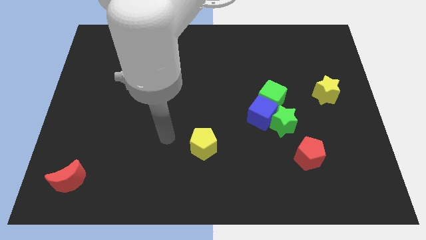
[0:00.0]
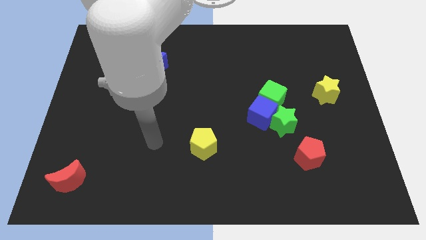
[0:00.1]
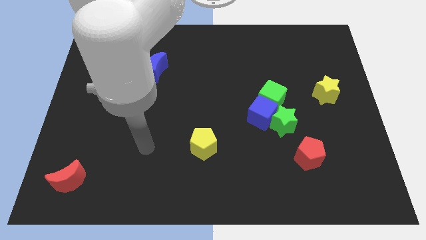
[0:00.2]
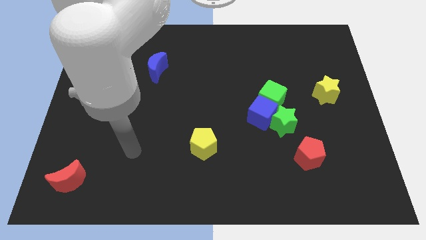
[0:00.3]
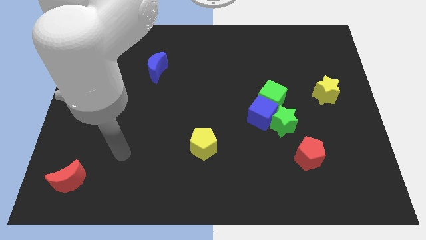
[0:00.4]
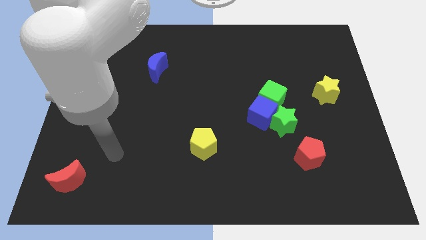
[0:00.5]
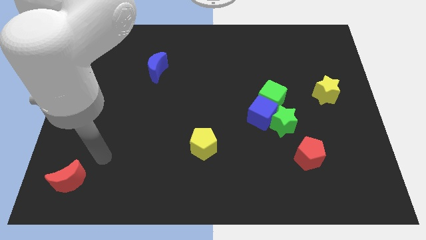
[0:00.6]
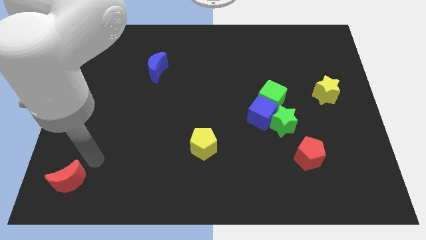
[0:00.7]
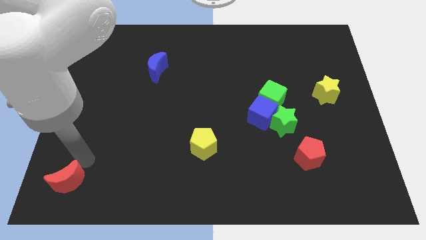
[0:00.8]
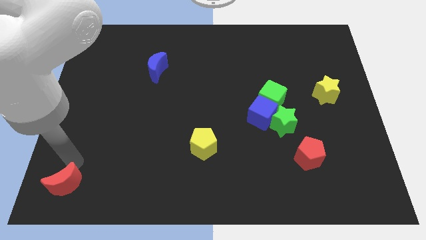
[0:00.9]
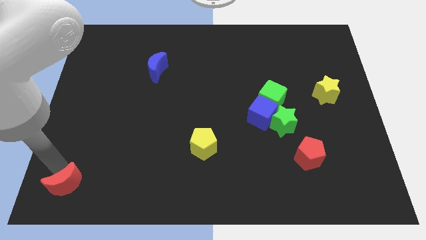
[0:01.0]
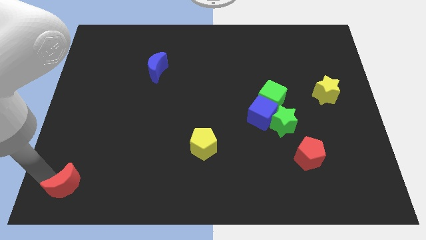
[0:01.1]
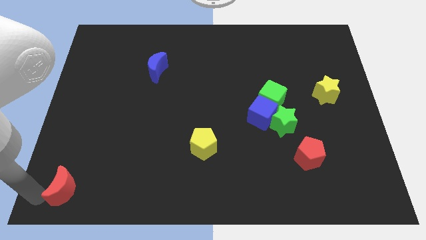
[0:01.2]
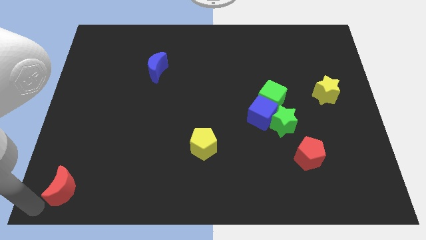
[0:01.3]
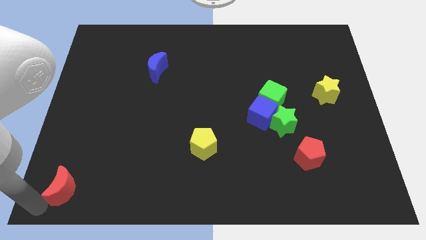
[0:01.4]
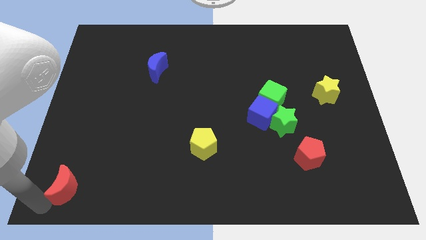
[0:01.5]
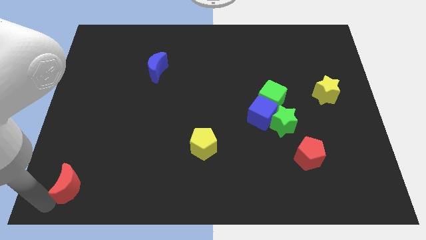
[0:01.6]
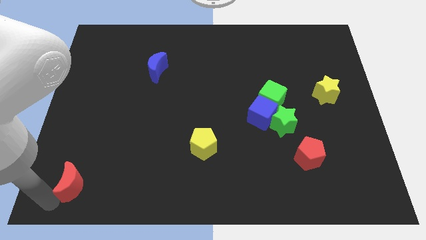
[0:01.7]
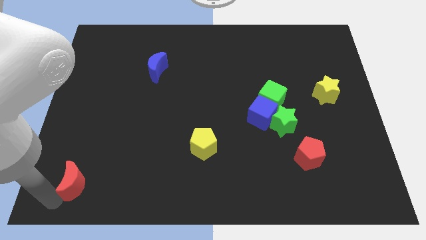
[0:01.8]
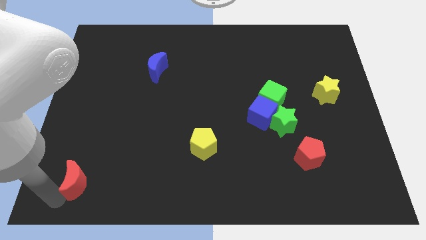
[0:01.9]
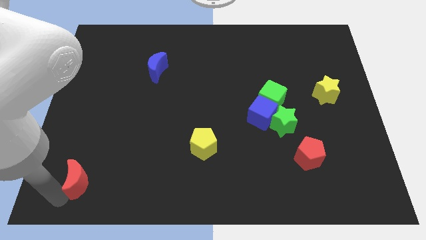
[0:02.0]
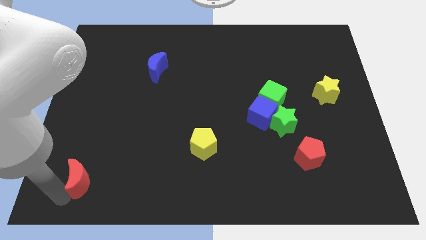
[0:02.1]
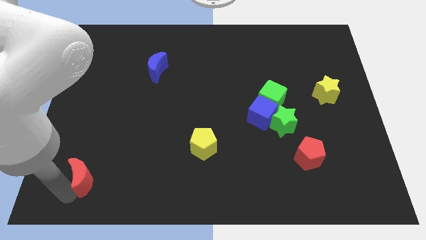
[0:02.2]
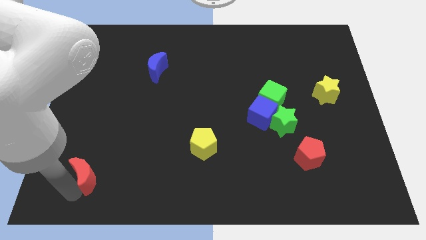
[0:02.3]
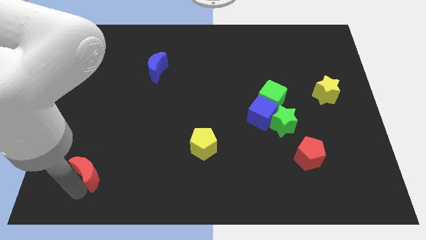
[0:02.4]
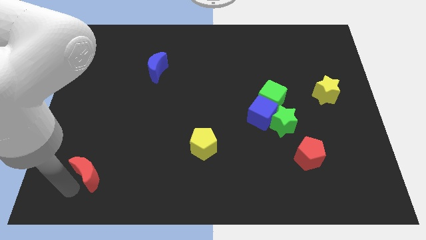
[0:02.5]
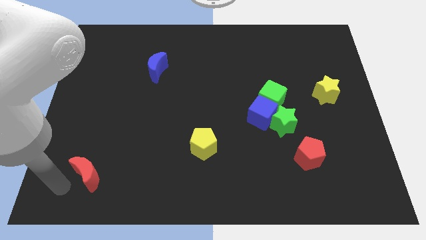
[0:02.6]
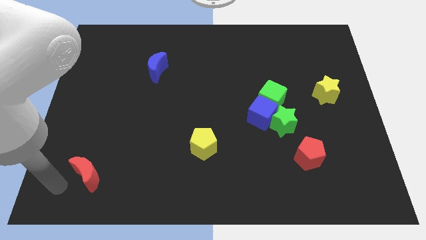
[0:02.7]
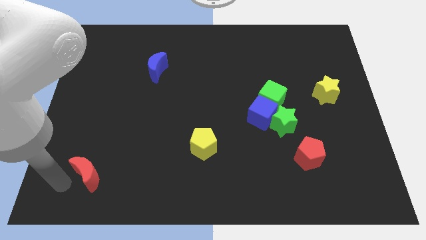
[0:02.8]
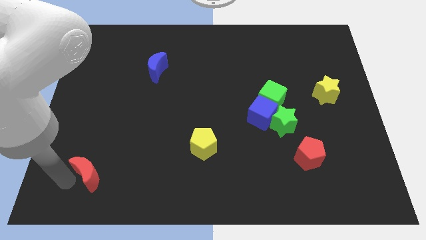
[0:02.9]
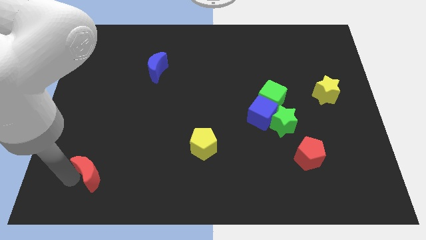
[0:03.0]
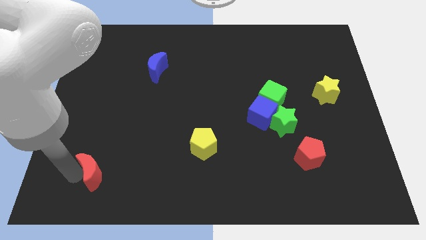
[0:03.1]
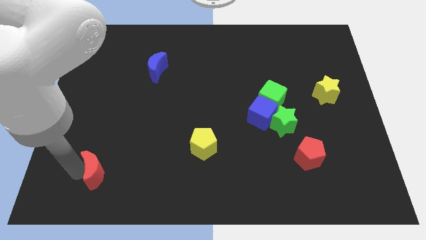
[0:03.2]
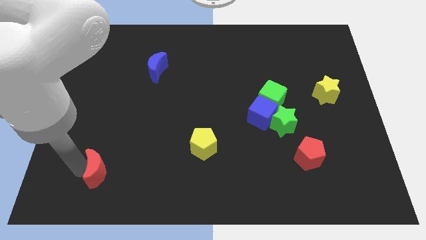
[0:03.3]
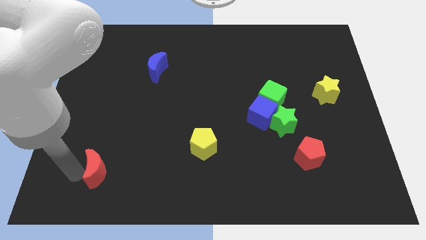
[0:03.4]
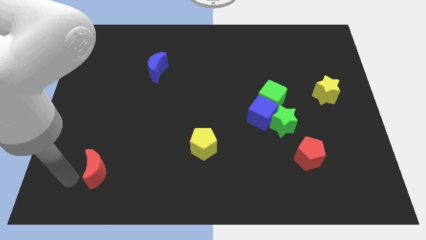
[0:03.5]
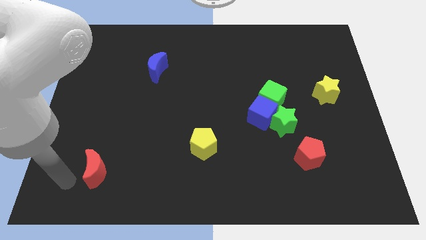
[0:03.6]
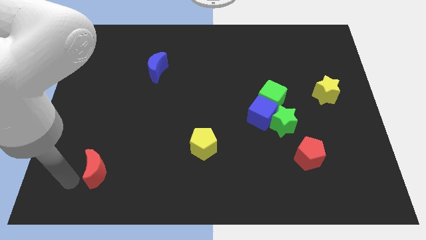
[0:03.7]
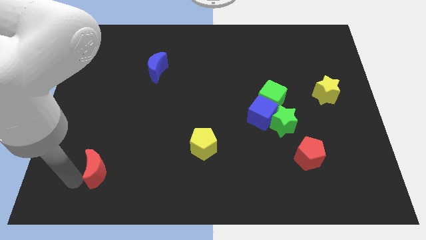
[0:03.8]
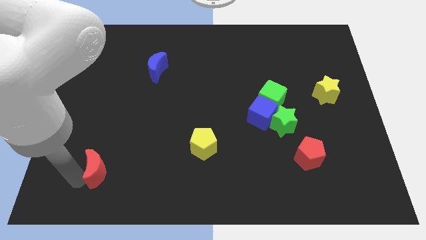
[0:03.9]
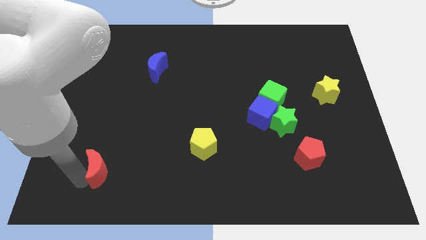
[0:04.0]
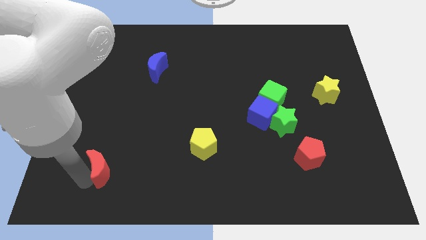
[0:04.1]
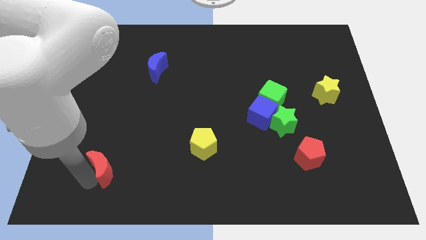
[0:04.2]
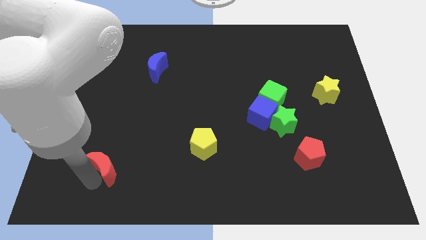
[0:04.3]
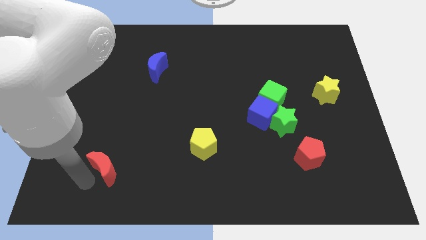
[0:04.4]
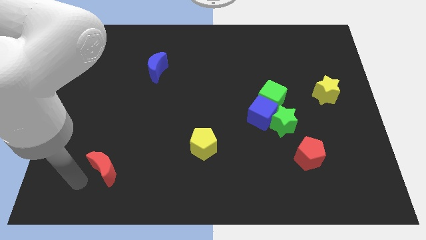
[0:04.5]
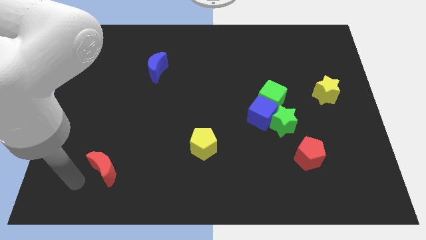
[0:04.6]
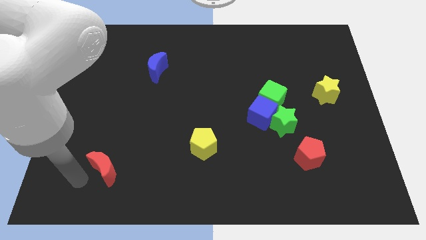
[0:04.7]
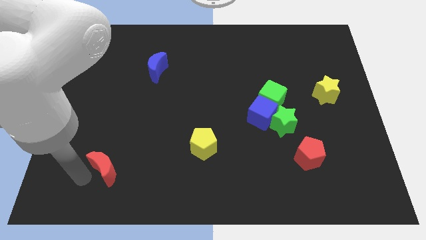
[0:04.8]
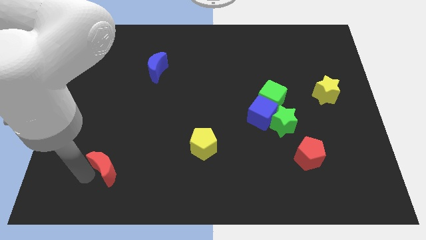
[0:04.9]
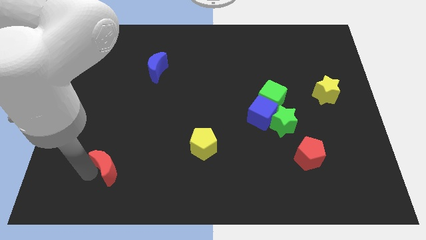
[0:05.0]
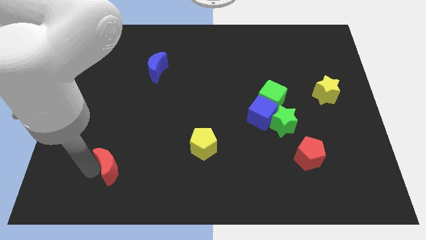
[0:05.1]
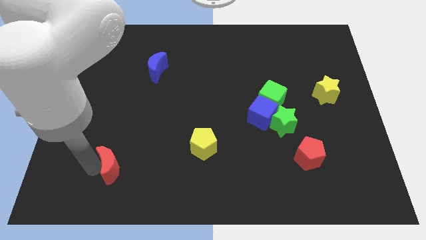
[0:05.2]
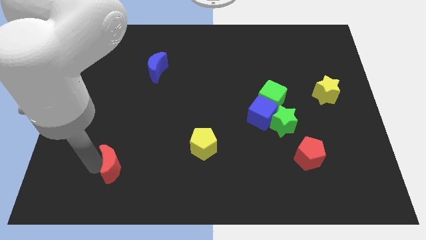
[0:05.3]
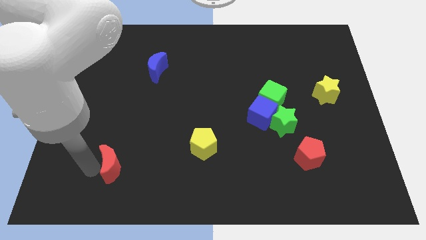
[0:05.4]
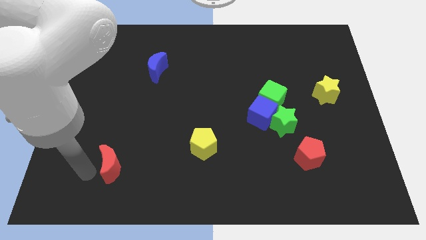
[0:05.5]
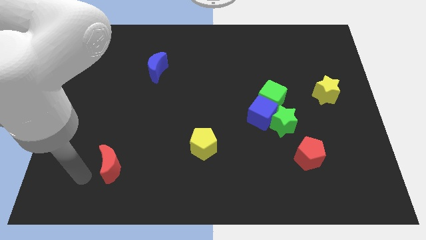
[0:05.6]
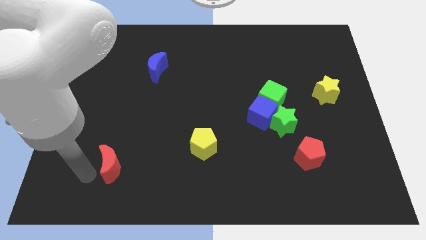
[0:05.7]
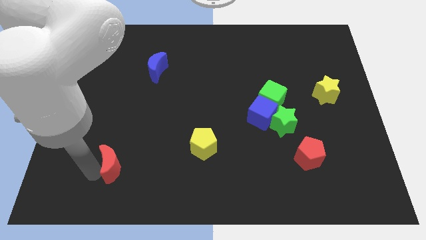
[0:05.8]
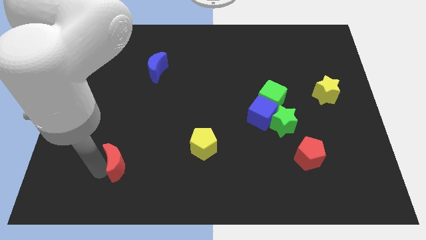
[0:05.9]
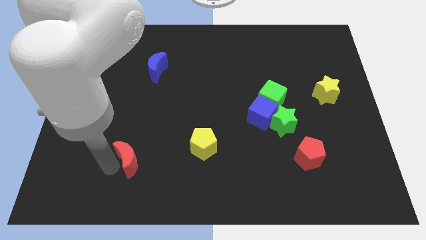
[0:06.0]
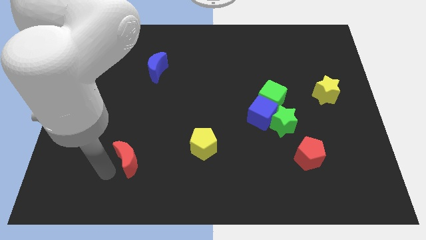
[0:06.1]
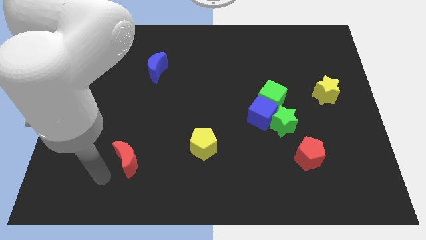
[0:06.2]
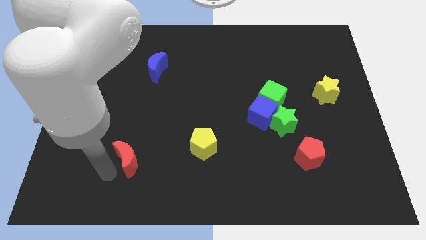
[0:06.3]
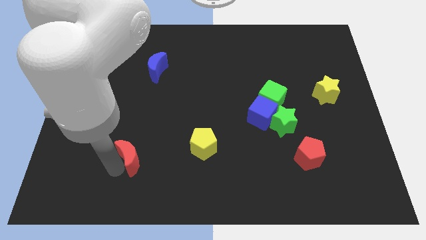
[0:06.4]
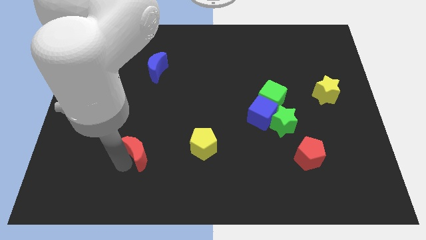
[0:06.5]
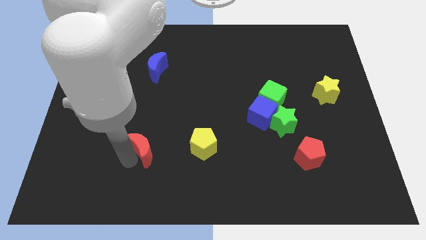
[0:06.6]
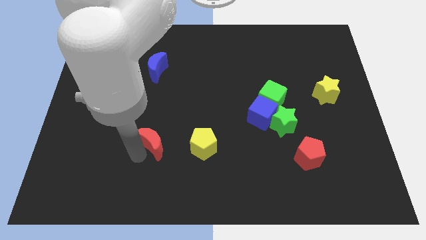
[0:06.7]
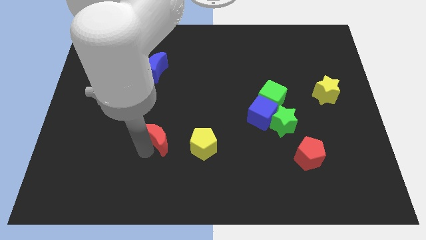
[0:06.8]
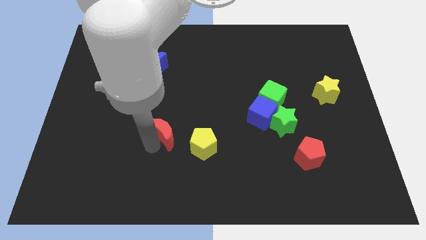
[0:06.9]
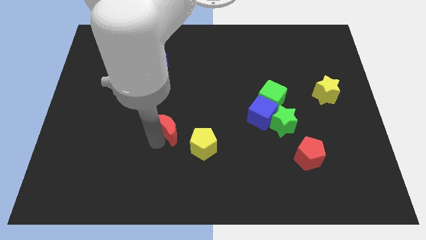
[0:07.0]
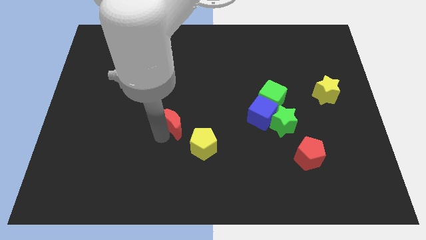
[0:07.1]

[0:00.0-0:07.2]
move the red moon to the middle
